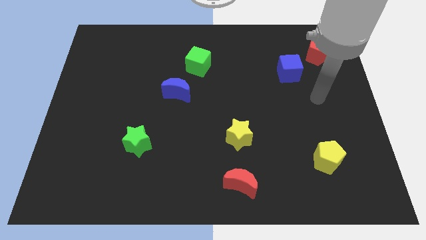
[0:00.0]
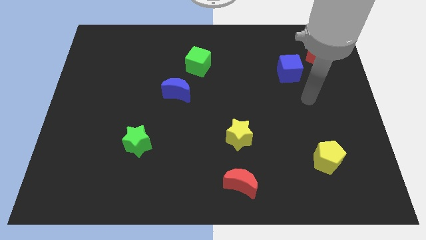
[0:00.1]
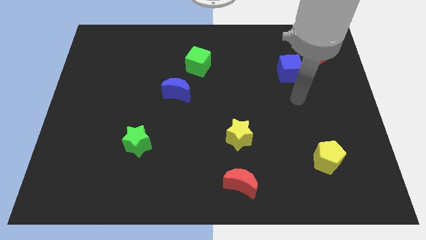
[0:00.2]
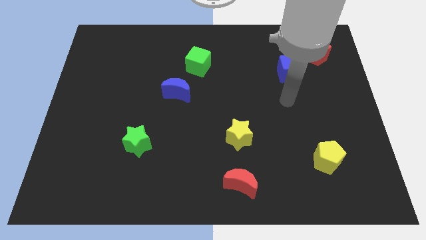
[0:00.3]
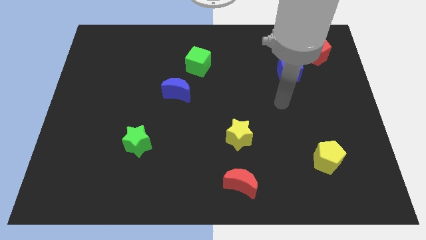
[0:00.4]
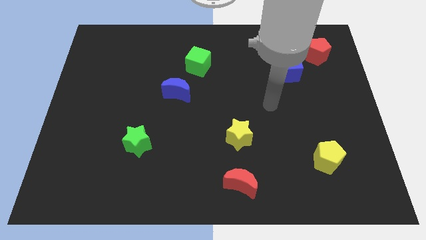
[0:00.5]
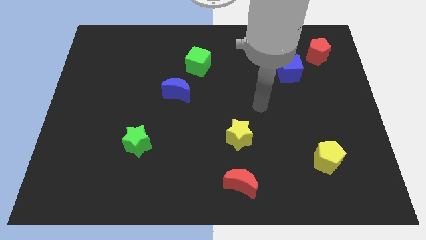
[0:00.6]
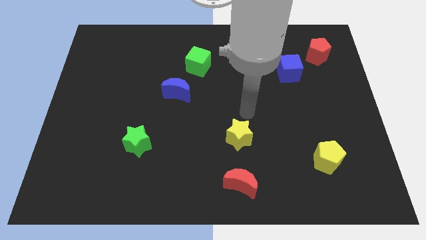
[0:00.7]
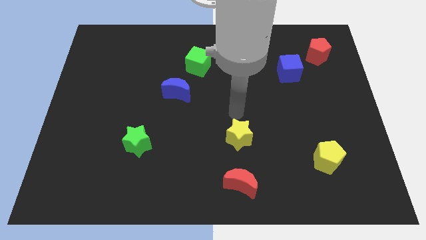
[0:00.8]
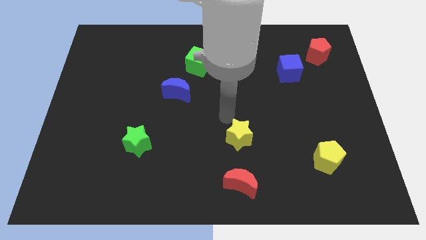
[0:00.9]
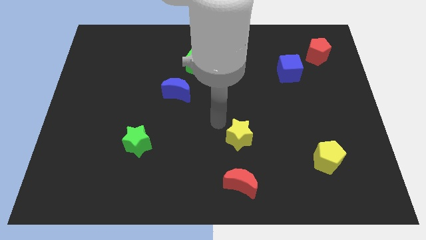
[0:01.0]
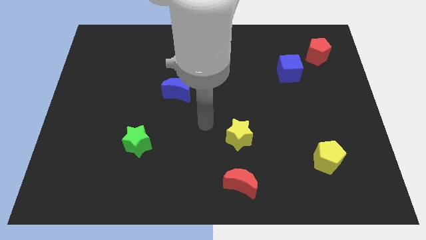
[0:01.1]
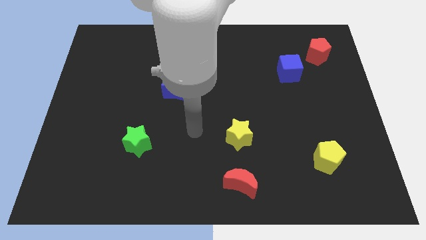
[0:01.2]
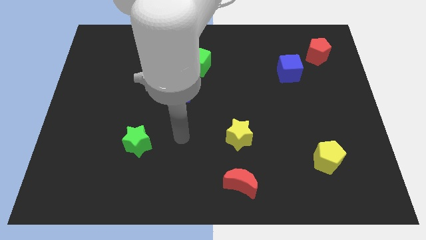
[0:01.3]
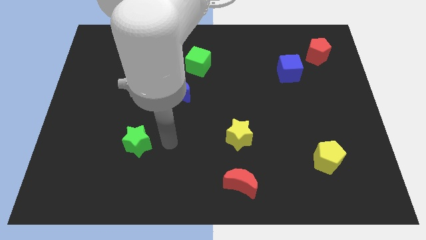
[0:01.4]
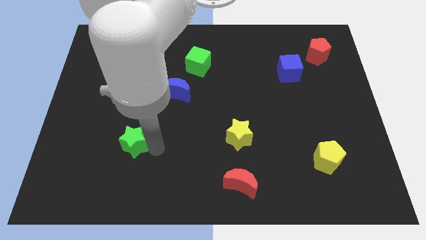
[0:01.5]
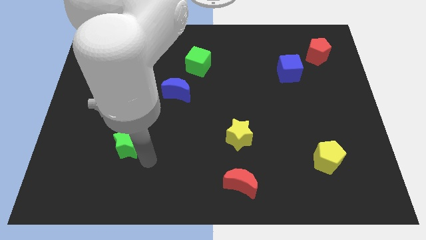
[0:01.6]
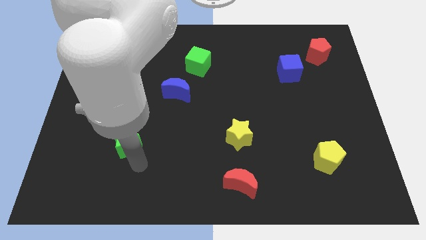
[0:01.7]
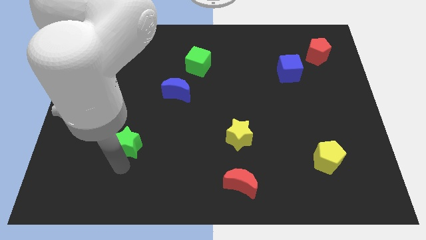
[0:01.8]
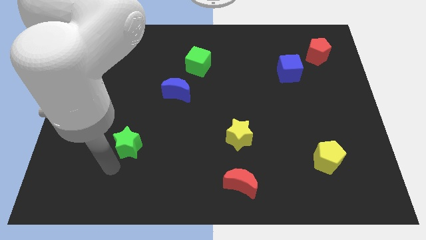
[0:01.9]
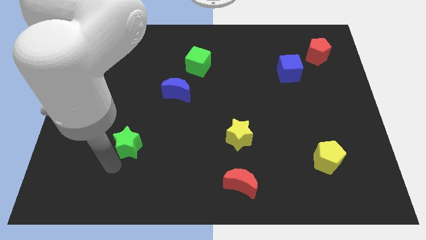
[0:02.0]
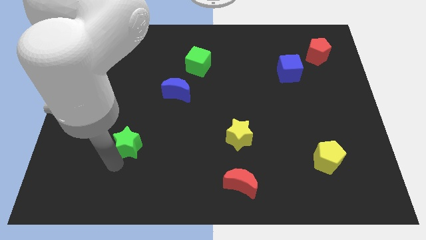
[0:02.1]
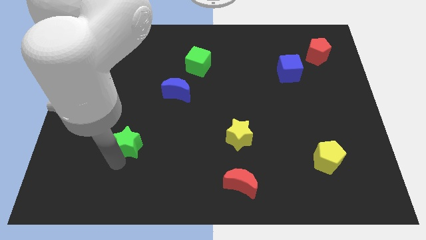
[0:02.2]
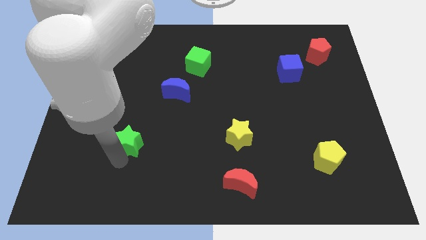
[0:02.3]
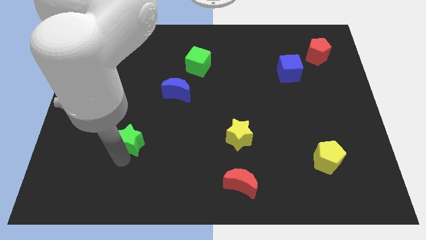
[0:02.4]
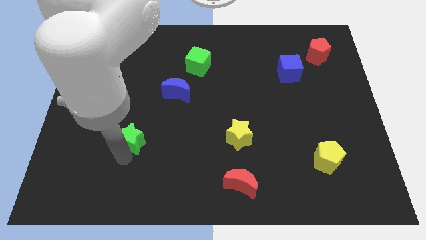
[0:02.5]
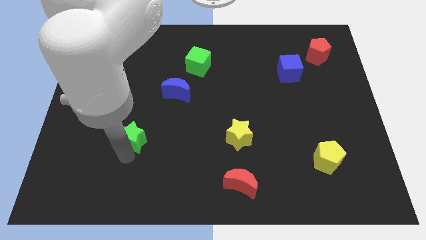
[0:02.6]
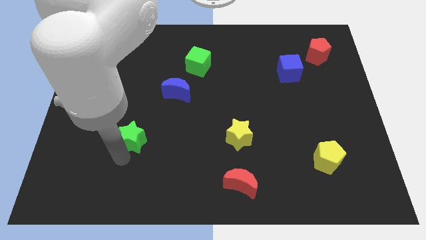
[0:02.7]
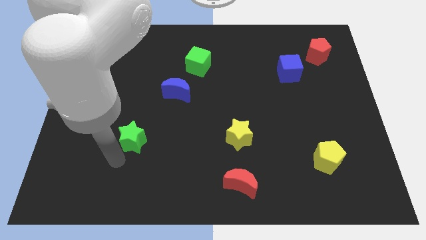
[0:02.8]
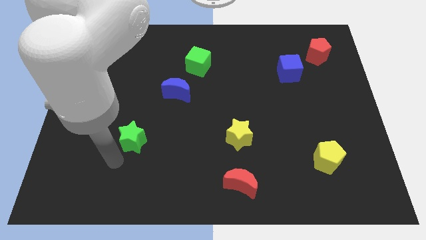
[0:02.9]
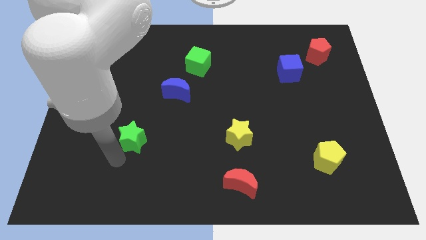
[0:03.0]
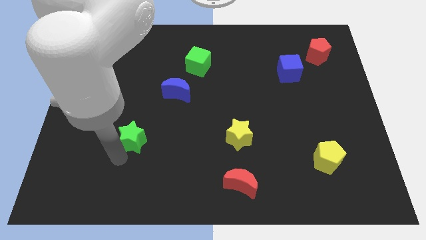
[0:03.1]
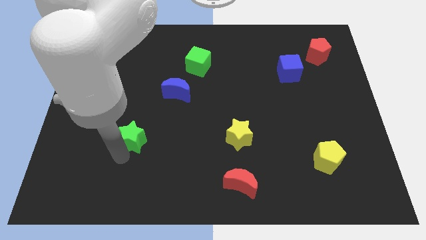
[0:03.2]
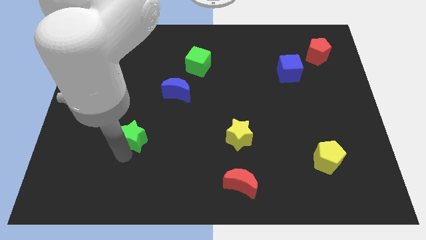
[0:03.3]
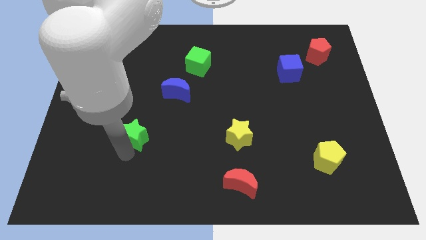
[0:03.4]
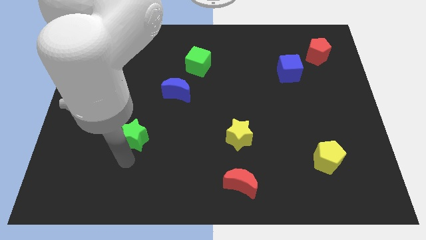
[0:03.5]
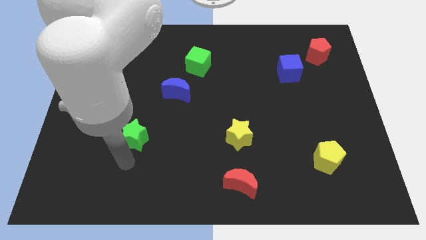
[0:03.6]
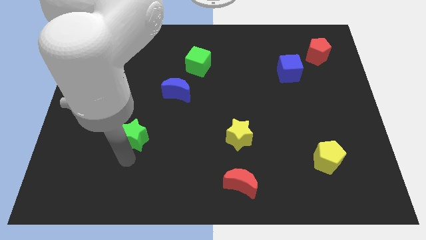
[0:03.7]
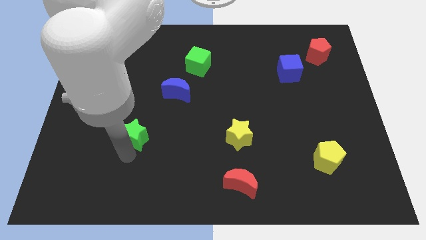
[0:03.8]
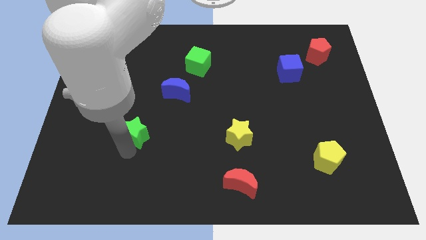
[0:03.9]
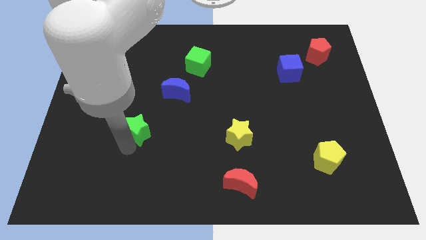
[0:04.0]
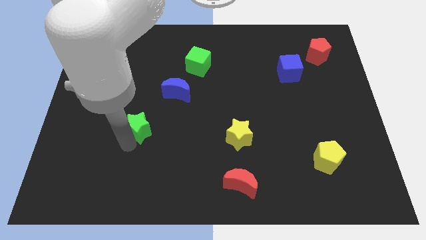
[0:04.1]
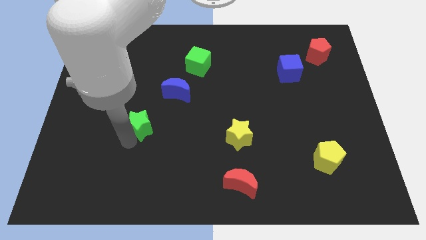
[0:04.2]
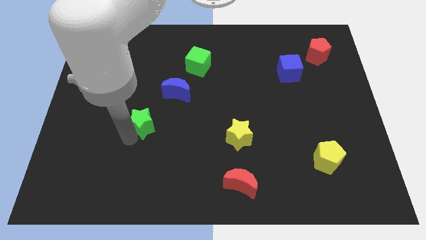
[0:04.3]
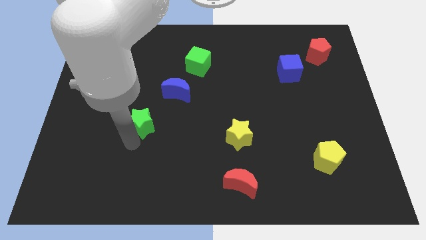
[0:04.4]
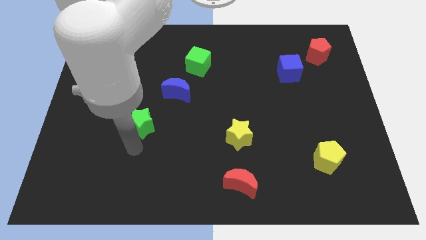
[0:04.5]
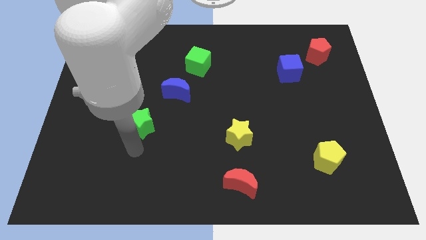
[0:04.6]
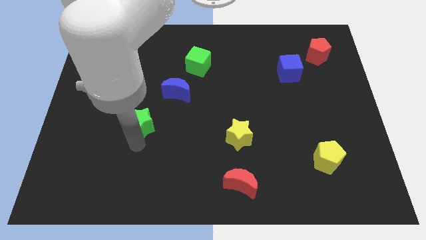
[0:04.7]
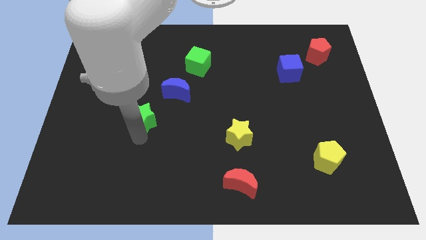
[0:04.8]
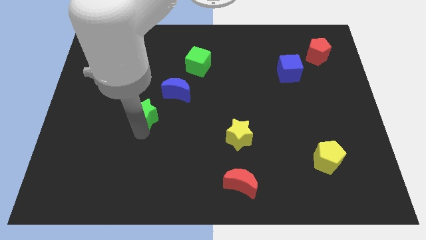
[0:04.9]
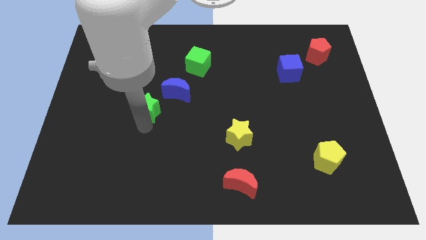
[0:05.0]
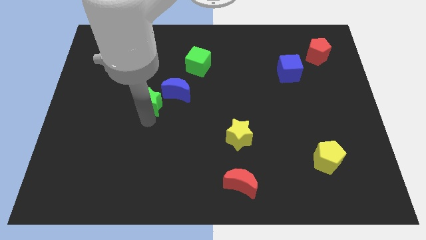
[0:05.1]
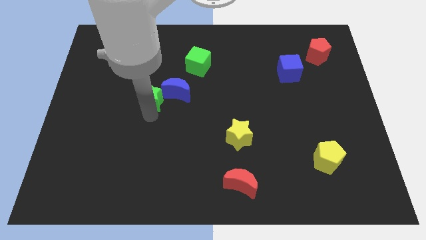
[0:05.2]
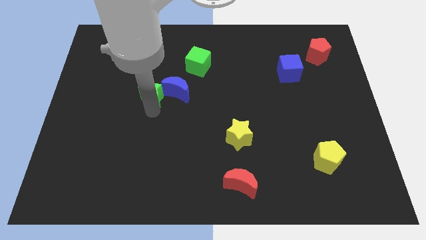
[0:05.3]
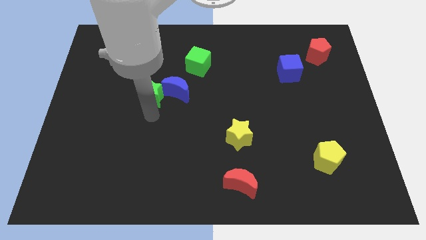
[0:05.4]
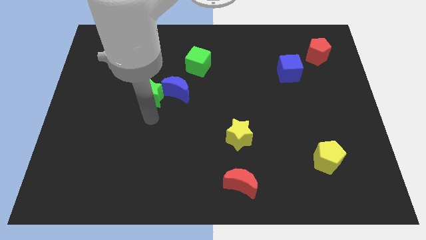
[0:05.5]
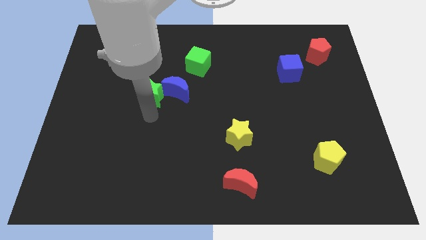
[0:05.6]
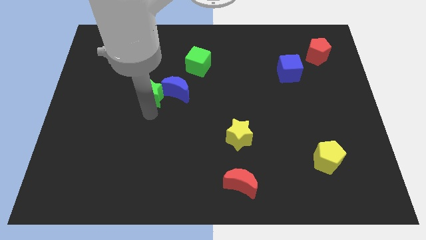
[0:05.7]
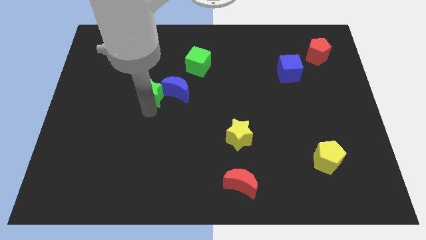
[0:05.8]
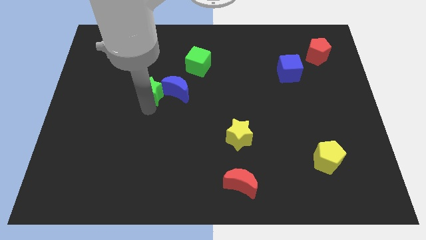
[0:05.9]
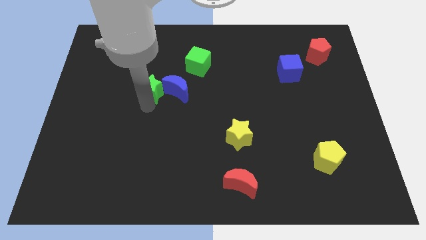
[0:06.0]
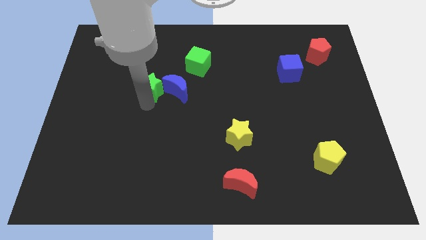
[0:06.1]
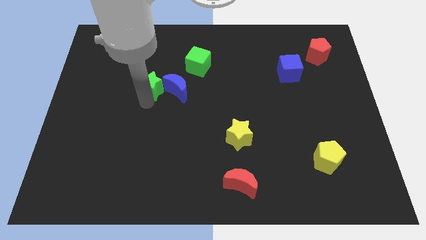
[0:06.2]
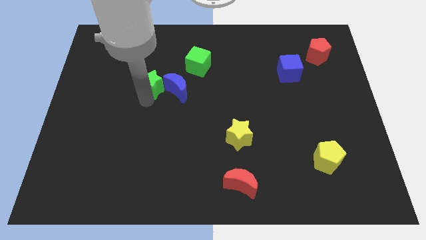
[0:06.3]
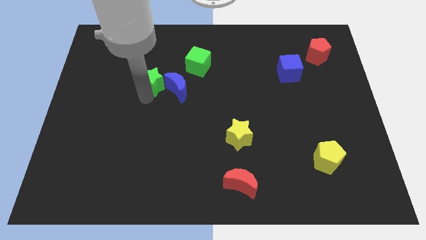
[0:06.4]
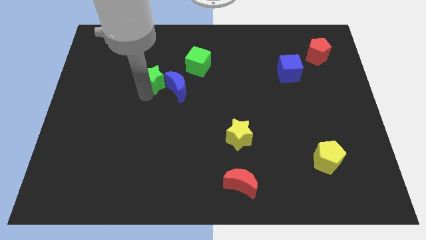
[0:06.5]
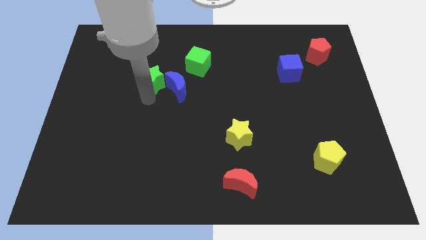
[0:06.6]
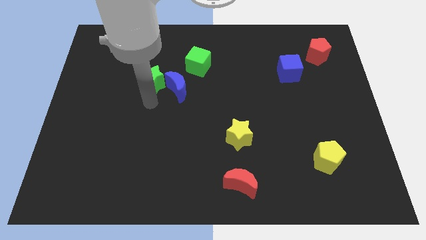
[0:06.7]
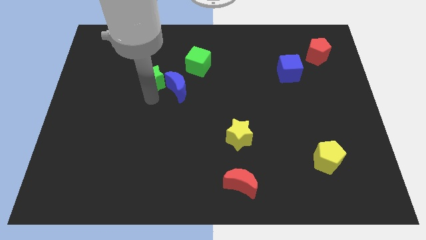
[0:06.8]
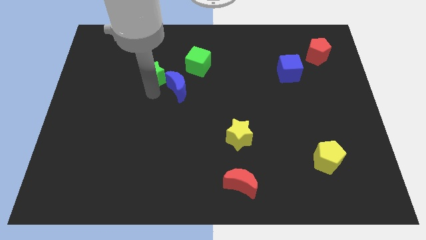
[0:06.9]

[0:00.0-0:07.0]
put the green star to the left of the green cube

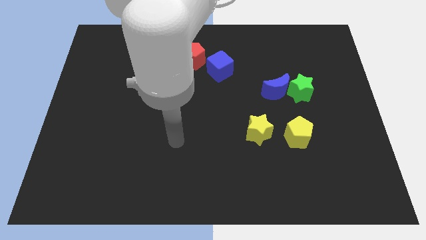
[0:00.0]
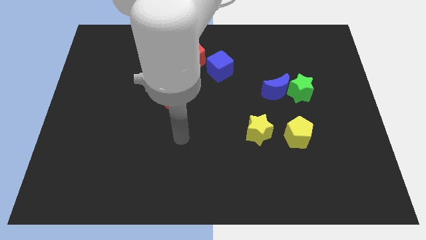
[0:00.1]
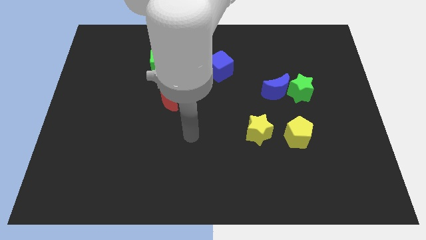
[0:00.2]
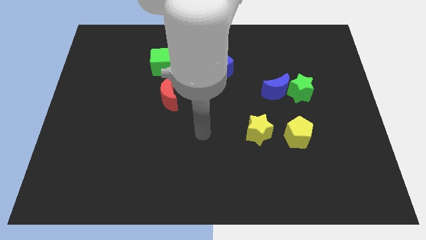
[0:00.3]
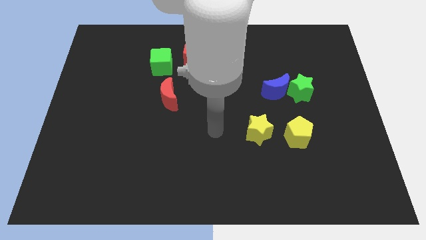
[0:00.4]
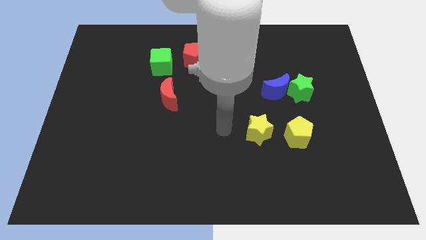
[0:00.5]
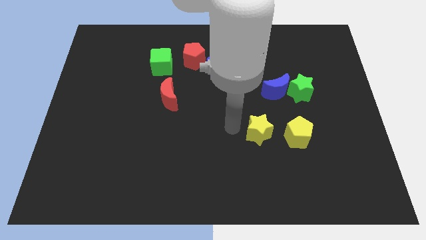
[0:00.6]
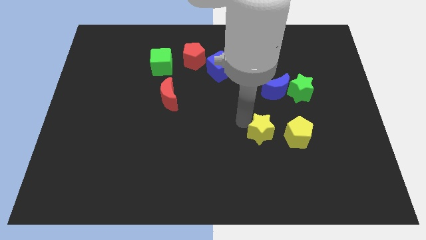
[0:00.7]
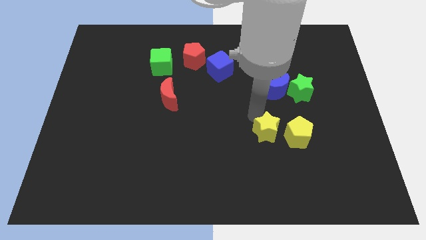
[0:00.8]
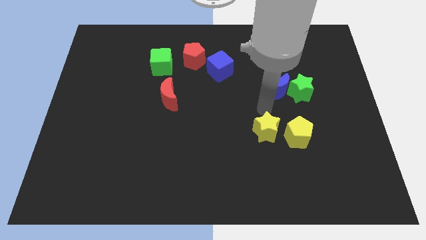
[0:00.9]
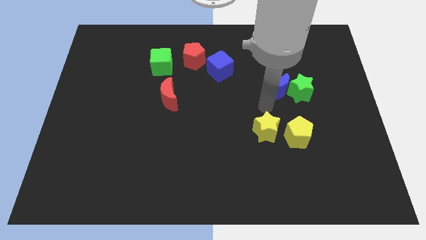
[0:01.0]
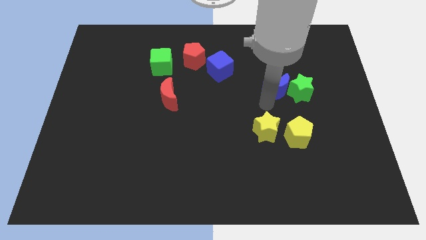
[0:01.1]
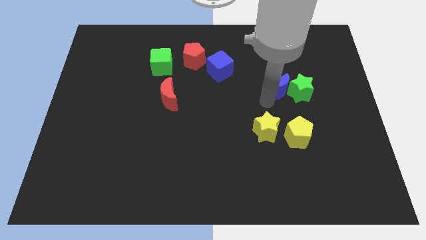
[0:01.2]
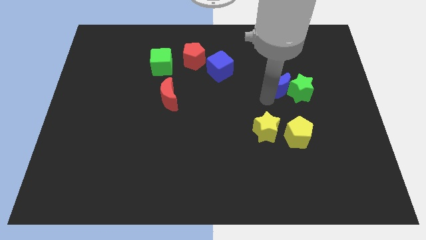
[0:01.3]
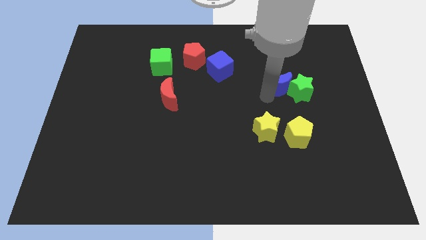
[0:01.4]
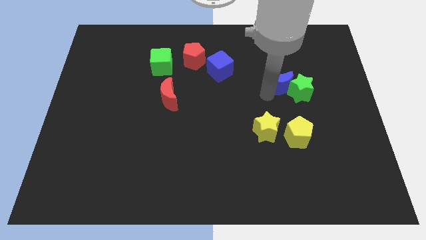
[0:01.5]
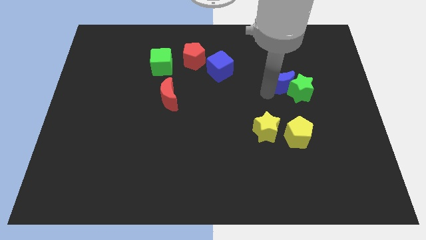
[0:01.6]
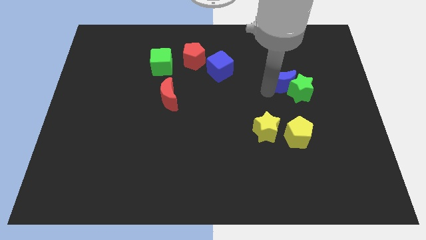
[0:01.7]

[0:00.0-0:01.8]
push the blue moon above the green star
